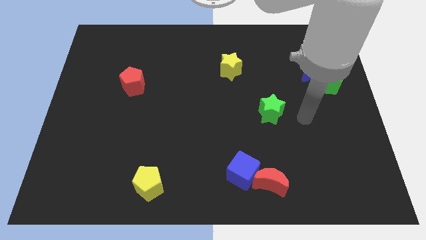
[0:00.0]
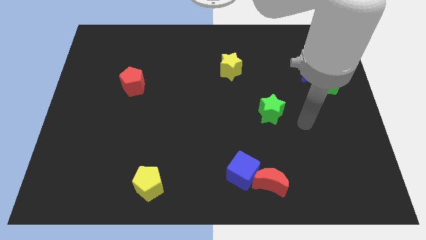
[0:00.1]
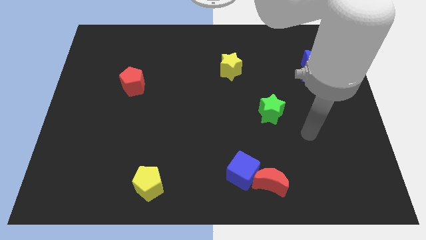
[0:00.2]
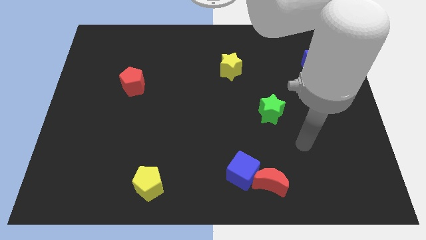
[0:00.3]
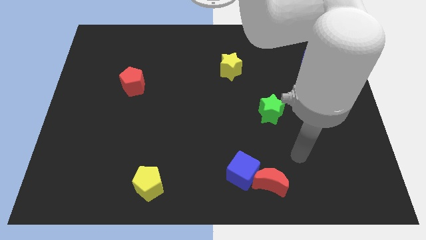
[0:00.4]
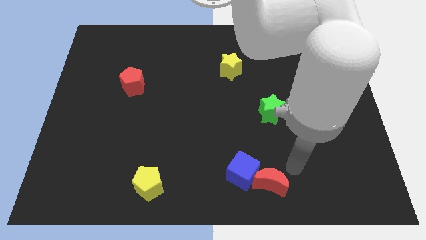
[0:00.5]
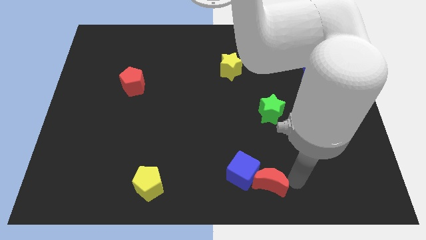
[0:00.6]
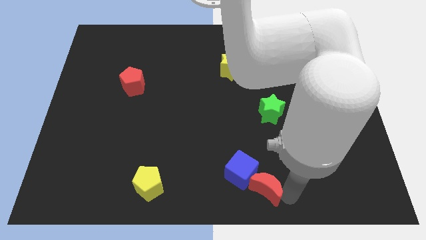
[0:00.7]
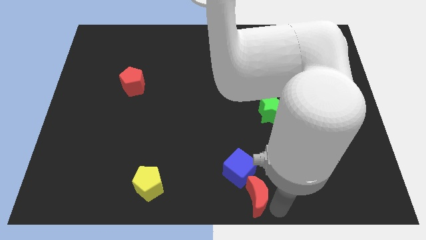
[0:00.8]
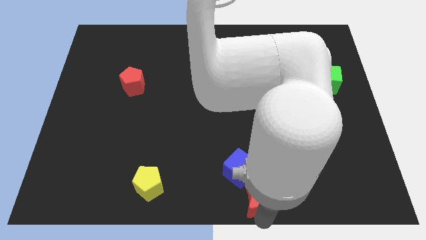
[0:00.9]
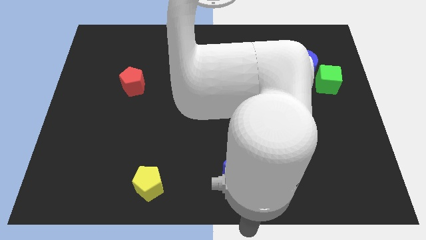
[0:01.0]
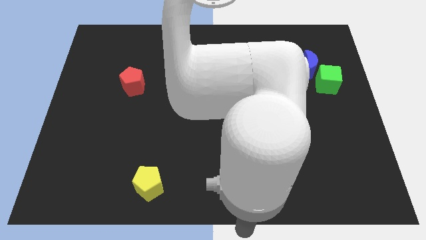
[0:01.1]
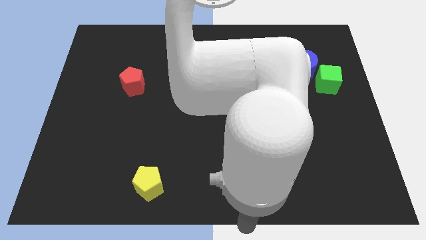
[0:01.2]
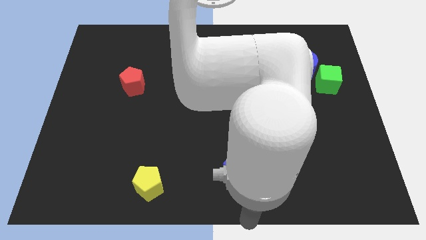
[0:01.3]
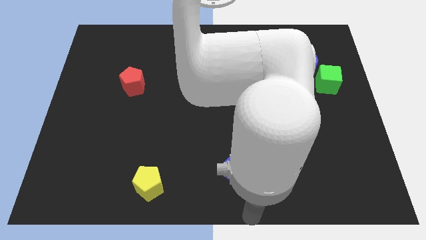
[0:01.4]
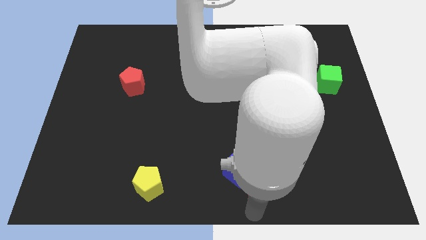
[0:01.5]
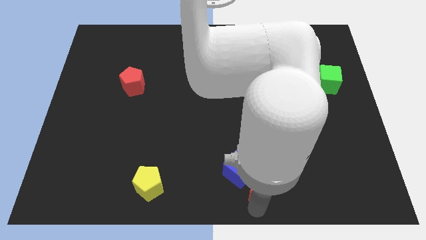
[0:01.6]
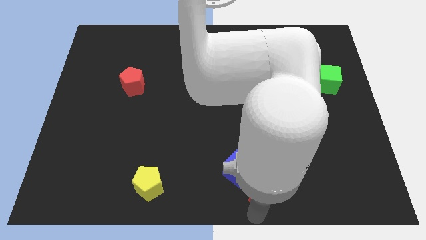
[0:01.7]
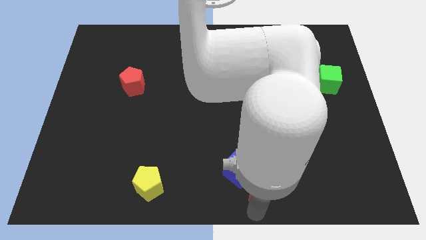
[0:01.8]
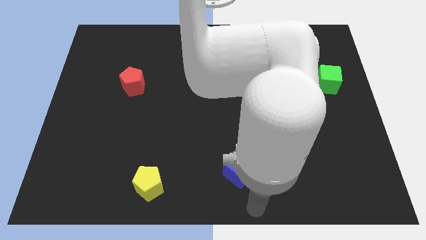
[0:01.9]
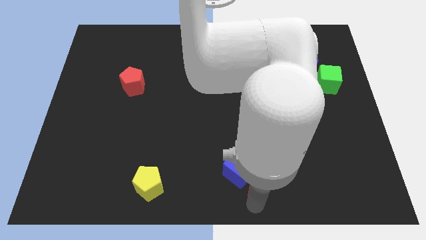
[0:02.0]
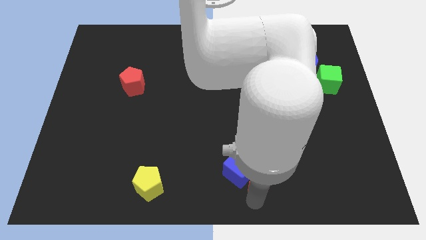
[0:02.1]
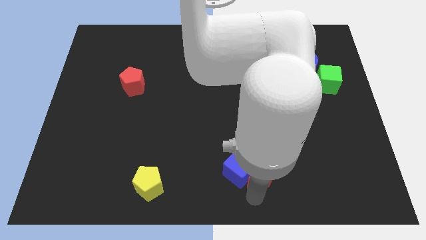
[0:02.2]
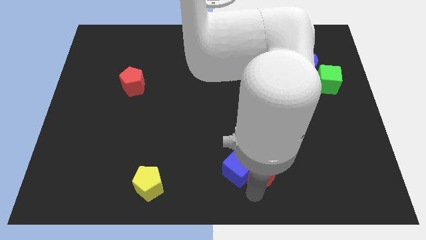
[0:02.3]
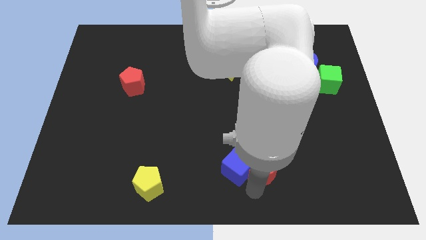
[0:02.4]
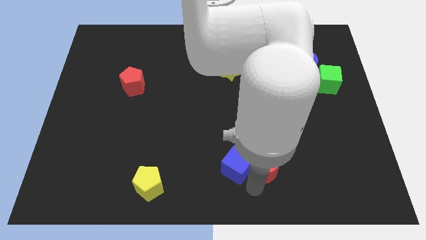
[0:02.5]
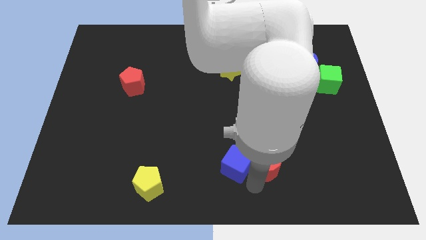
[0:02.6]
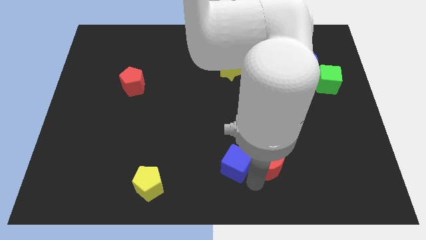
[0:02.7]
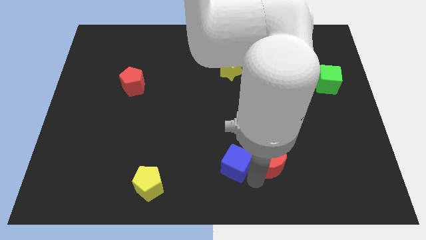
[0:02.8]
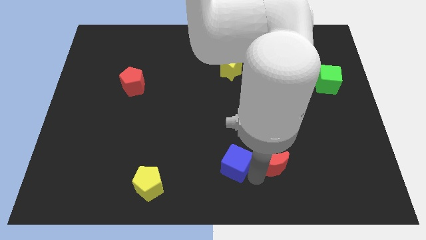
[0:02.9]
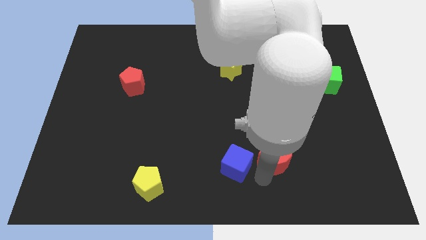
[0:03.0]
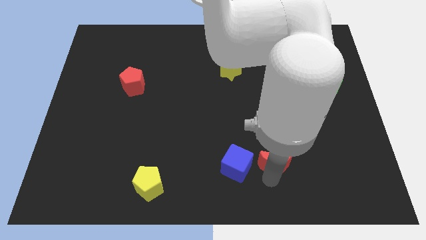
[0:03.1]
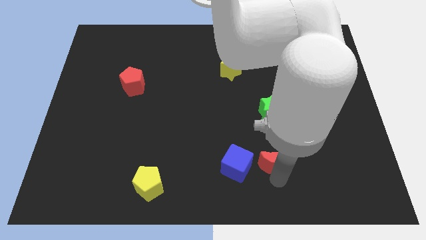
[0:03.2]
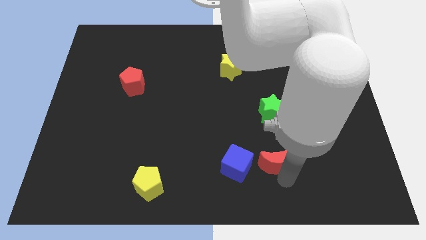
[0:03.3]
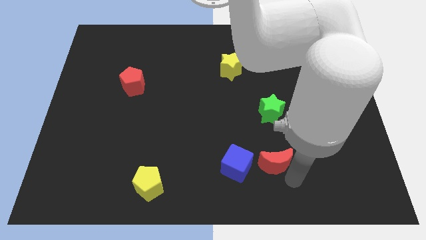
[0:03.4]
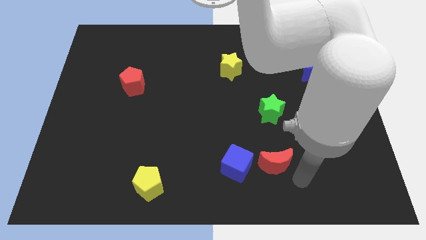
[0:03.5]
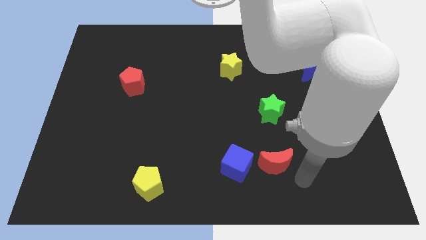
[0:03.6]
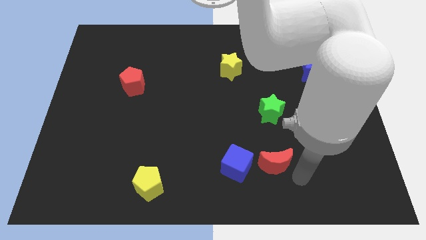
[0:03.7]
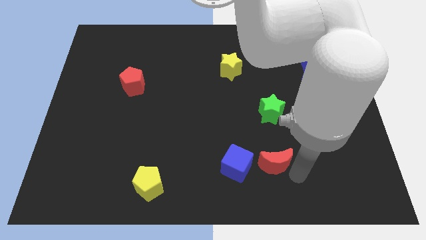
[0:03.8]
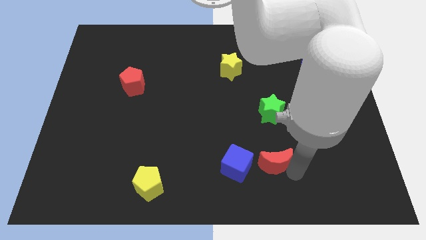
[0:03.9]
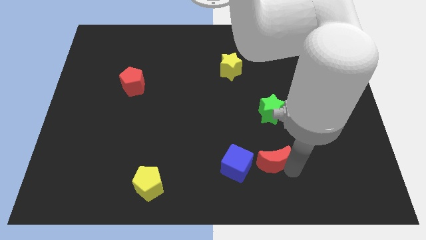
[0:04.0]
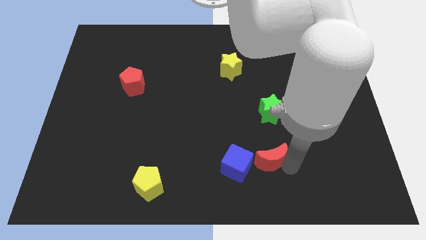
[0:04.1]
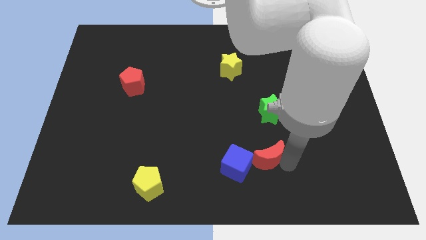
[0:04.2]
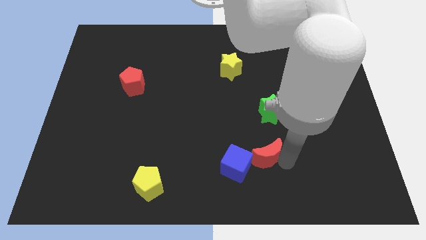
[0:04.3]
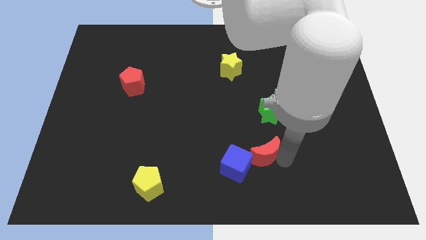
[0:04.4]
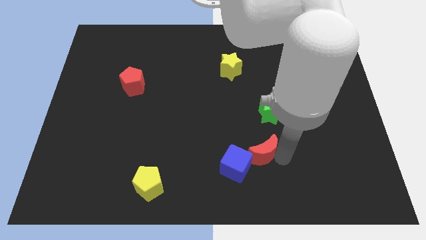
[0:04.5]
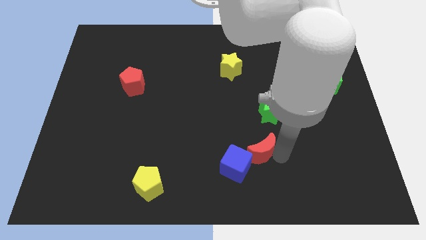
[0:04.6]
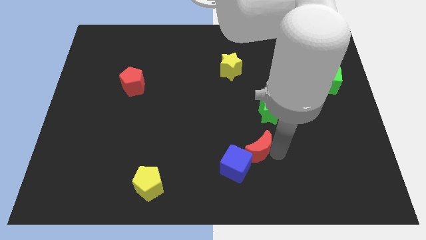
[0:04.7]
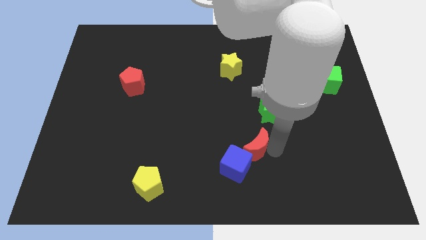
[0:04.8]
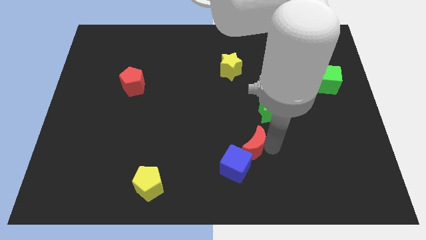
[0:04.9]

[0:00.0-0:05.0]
slide the red moon upwards and to the left diagonally a bit

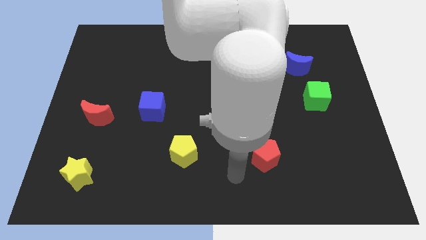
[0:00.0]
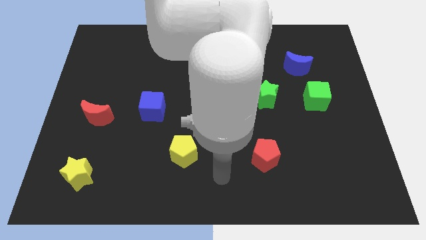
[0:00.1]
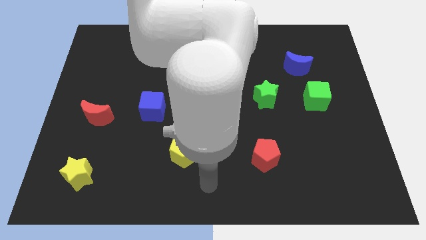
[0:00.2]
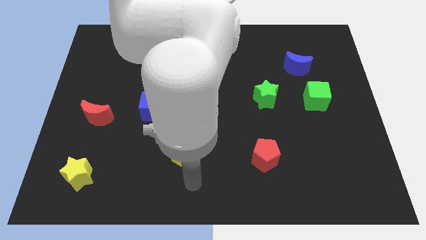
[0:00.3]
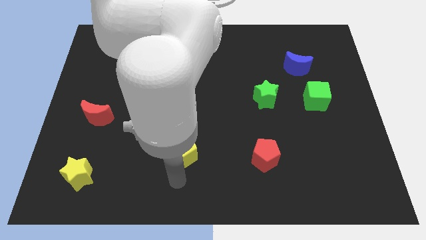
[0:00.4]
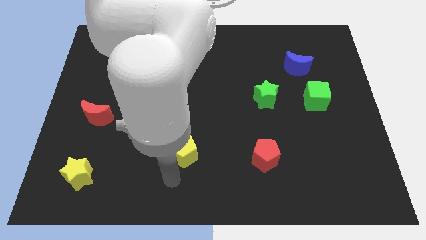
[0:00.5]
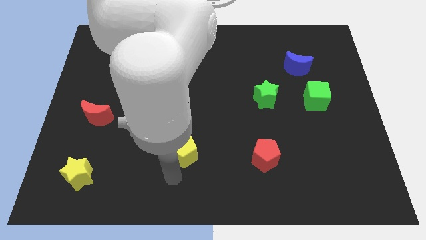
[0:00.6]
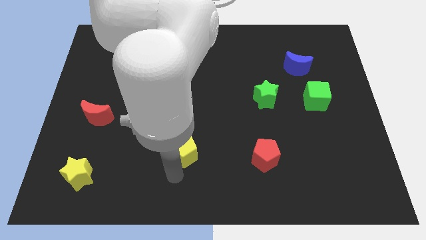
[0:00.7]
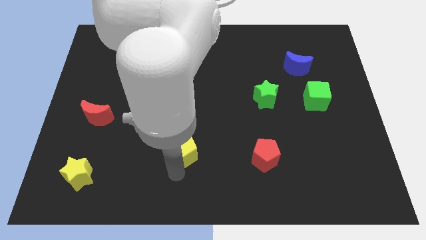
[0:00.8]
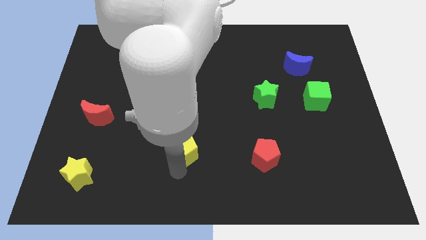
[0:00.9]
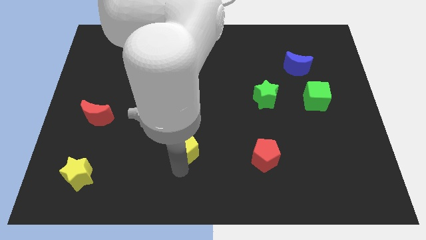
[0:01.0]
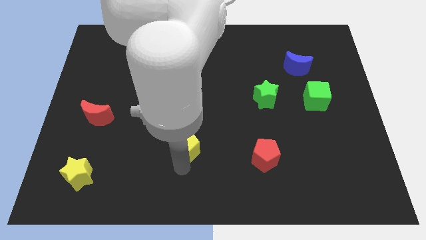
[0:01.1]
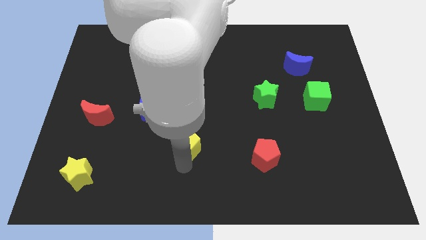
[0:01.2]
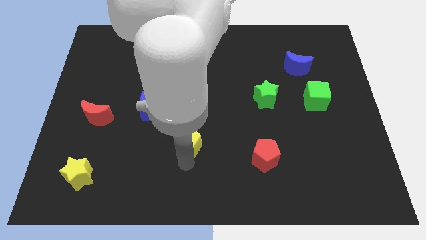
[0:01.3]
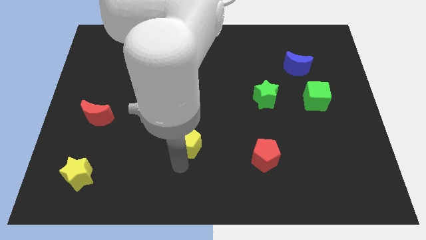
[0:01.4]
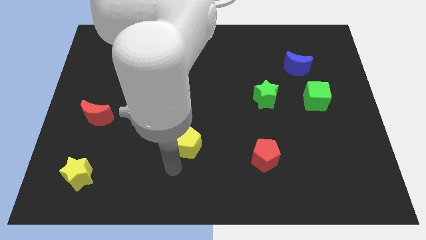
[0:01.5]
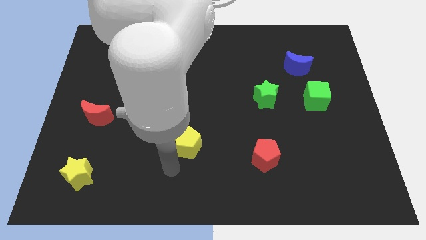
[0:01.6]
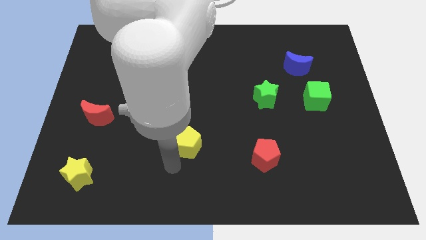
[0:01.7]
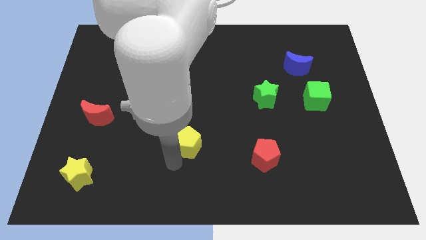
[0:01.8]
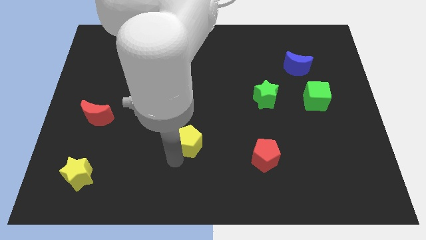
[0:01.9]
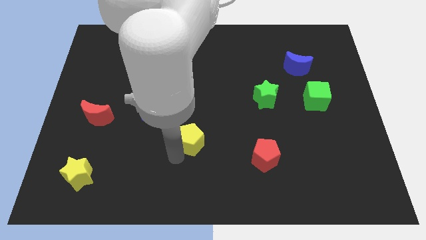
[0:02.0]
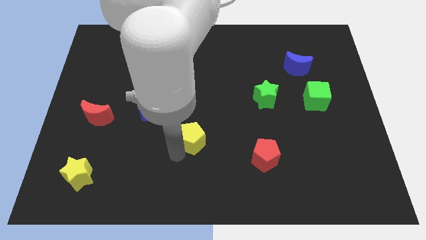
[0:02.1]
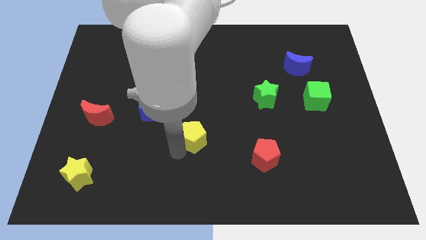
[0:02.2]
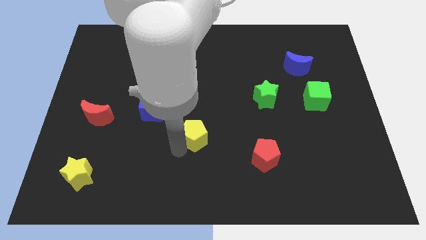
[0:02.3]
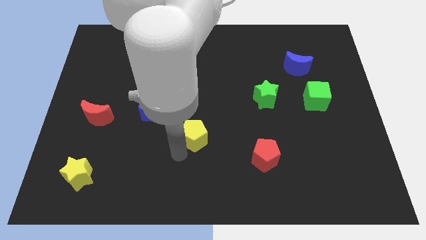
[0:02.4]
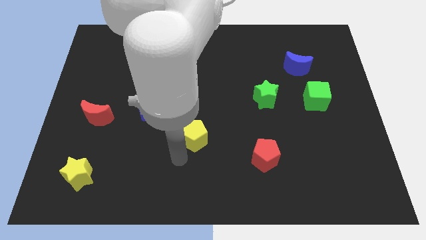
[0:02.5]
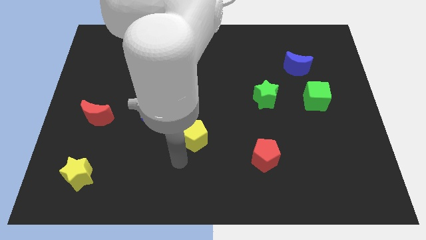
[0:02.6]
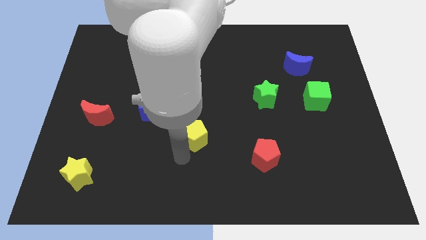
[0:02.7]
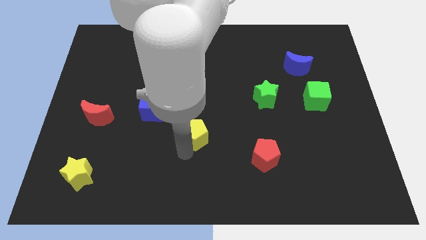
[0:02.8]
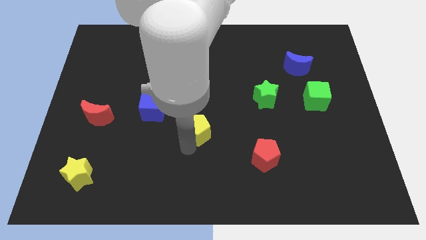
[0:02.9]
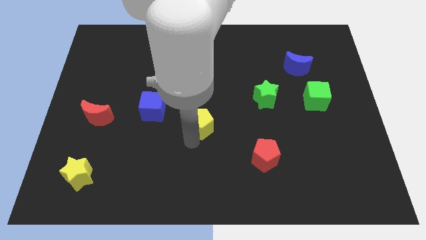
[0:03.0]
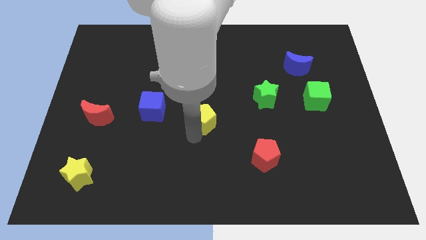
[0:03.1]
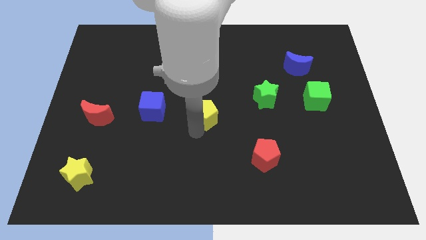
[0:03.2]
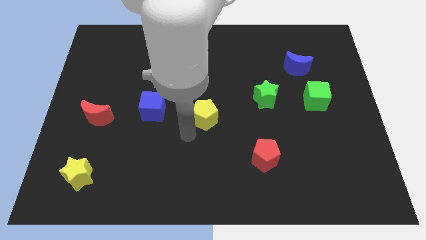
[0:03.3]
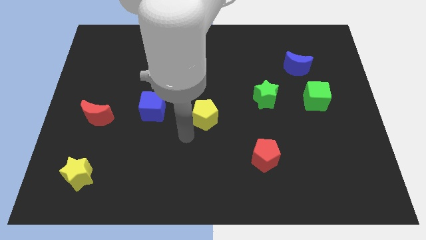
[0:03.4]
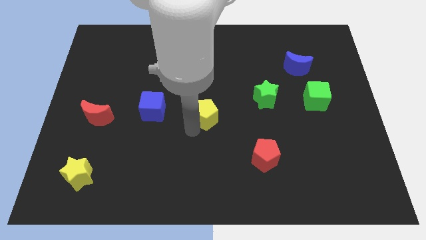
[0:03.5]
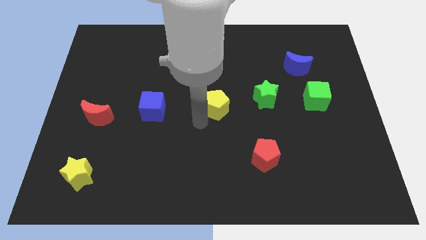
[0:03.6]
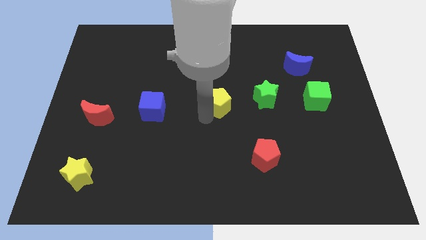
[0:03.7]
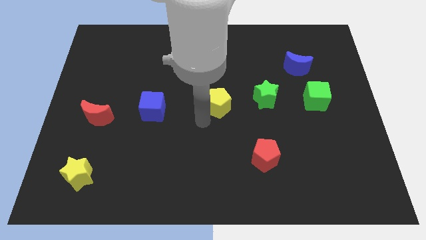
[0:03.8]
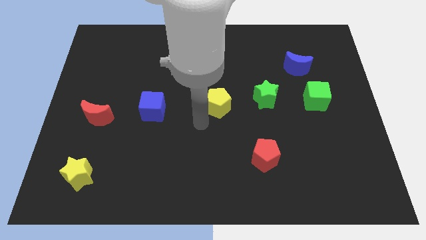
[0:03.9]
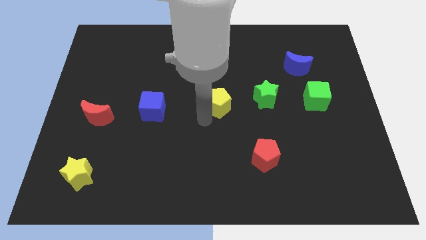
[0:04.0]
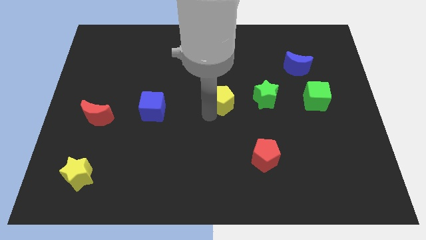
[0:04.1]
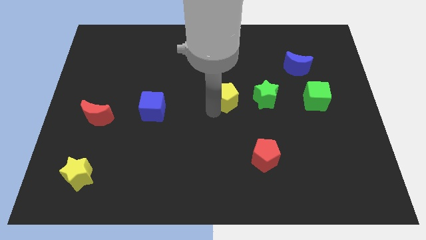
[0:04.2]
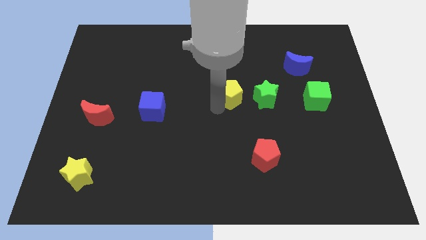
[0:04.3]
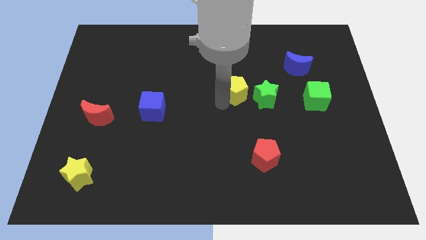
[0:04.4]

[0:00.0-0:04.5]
slide the yellow pentagon upwards and then right
